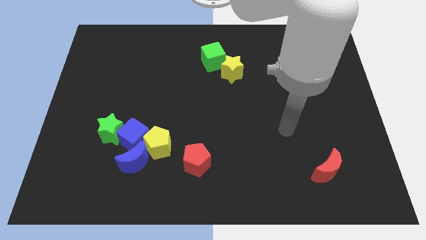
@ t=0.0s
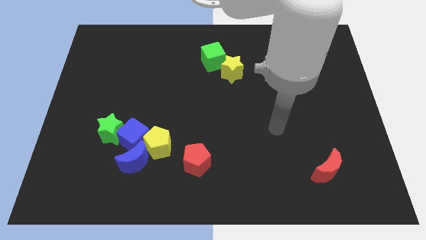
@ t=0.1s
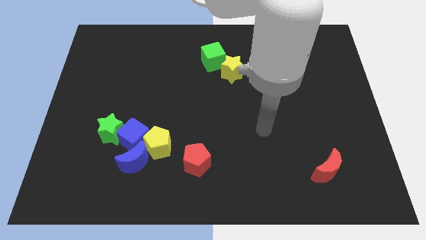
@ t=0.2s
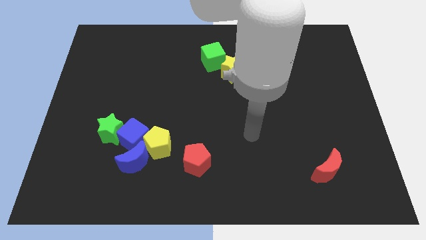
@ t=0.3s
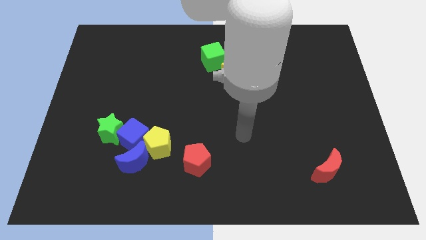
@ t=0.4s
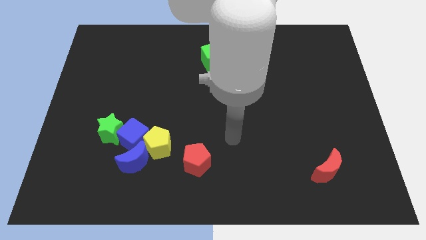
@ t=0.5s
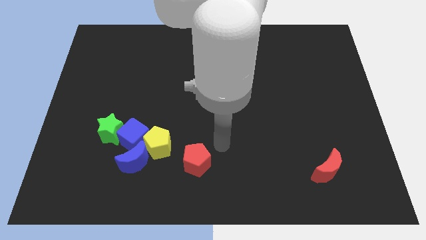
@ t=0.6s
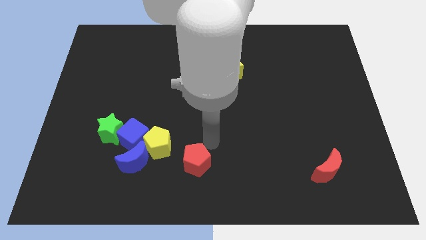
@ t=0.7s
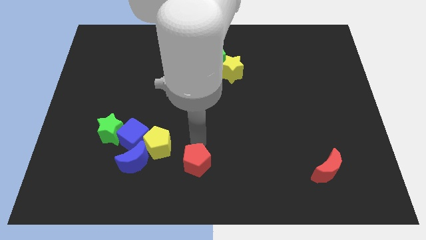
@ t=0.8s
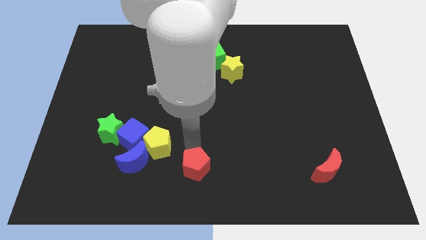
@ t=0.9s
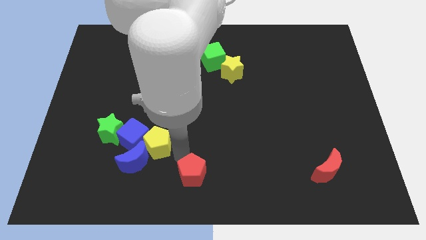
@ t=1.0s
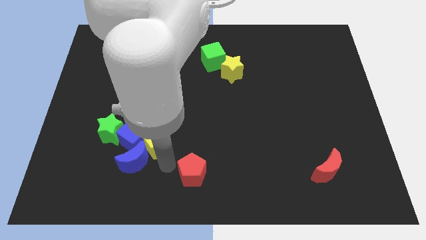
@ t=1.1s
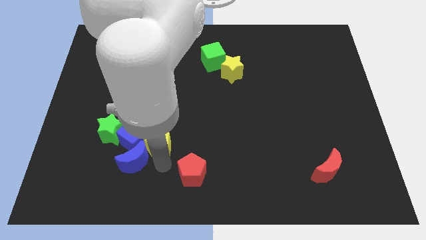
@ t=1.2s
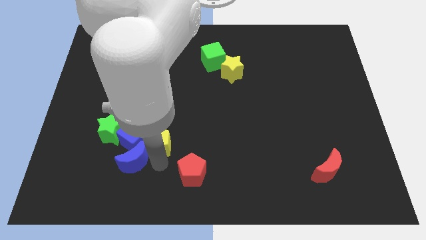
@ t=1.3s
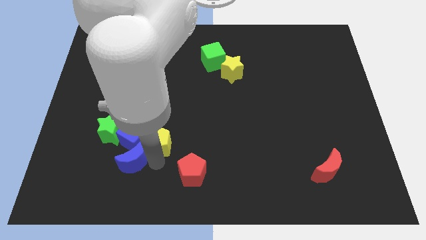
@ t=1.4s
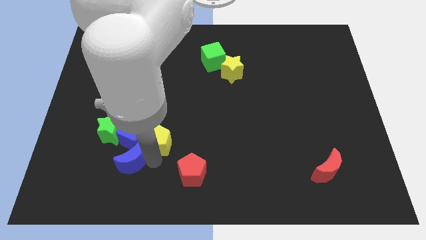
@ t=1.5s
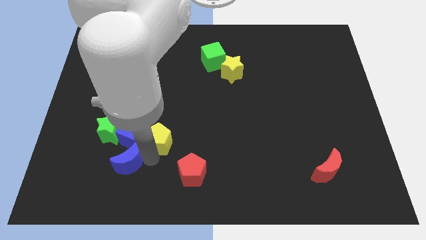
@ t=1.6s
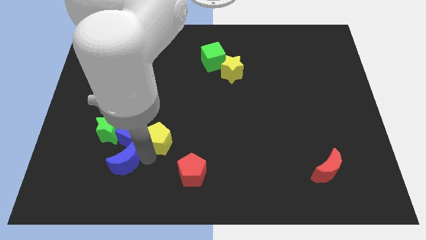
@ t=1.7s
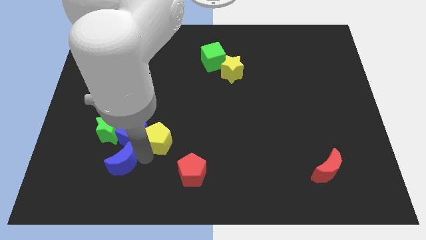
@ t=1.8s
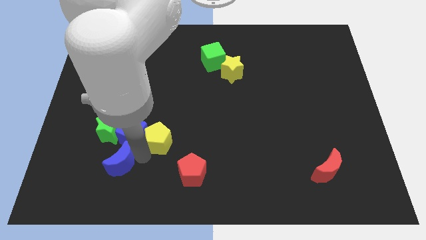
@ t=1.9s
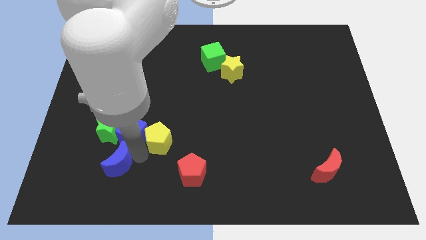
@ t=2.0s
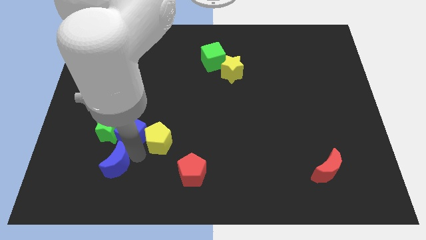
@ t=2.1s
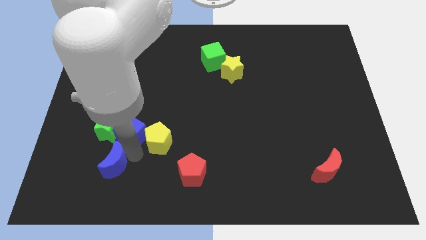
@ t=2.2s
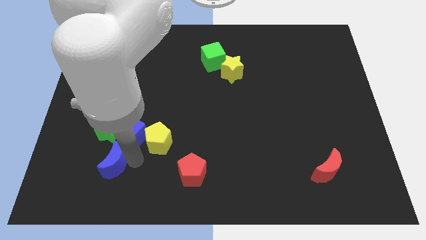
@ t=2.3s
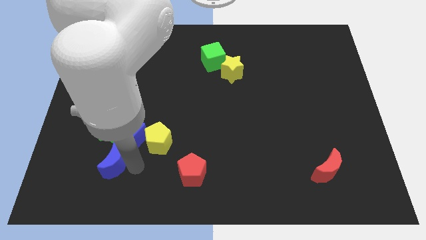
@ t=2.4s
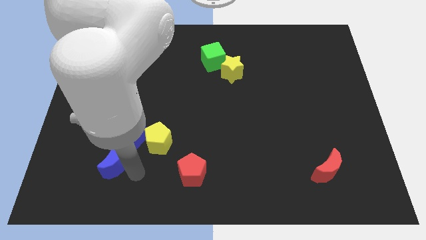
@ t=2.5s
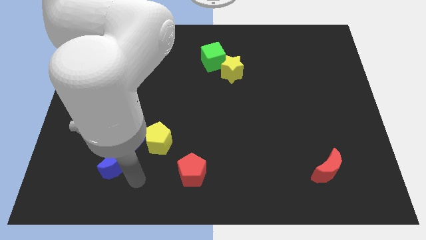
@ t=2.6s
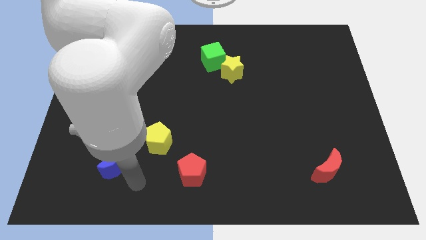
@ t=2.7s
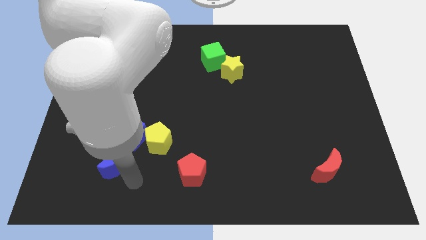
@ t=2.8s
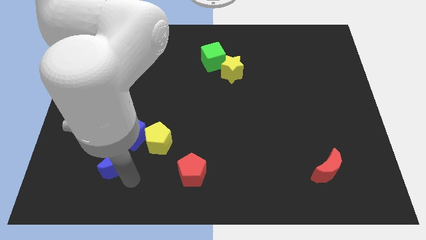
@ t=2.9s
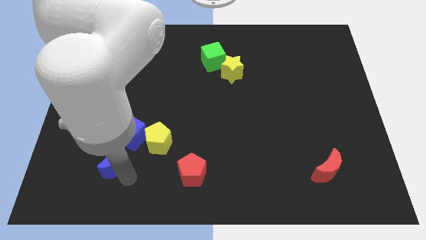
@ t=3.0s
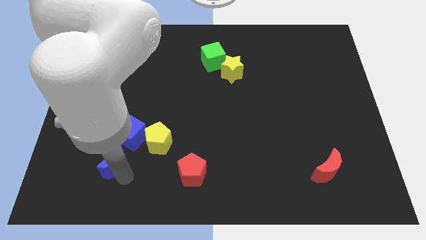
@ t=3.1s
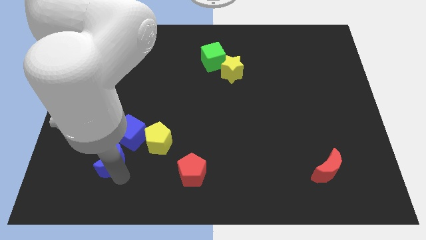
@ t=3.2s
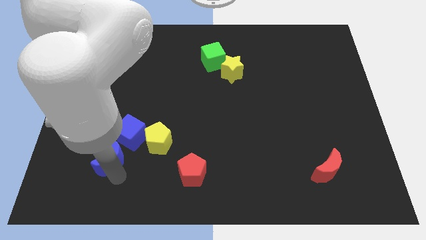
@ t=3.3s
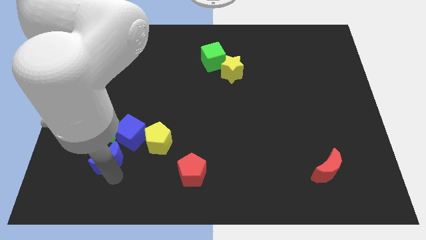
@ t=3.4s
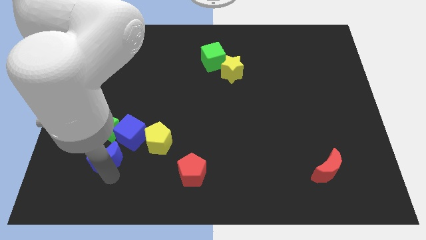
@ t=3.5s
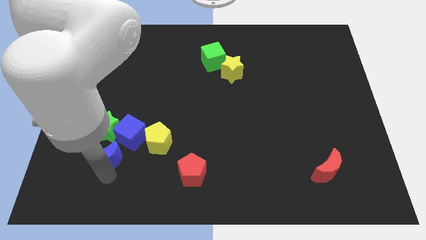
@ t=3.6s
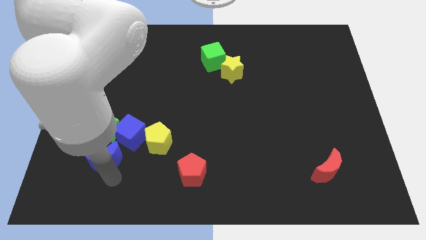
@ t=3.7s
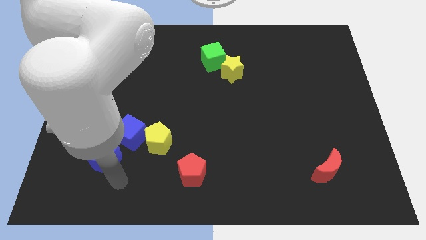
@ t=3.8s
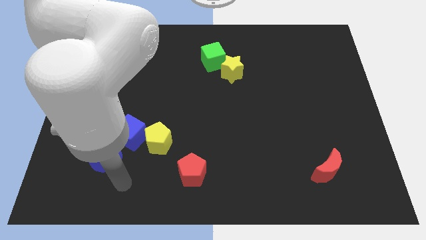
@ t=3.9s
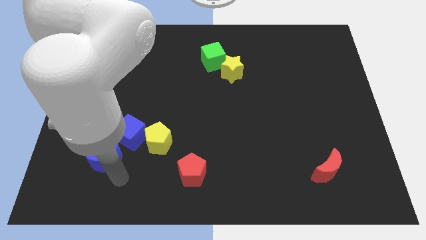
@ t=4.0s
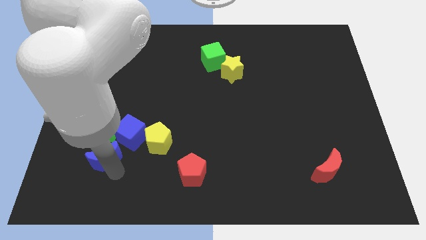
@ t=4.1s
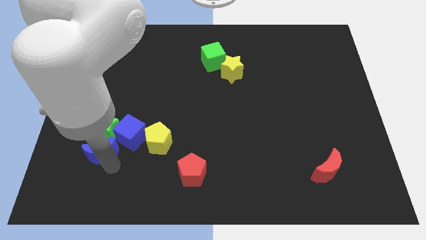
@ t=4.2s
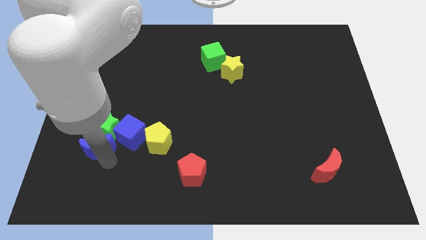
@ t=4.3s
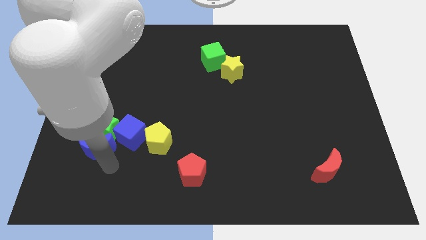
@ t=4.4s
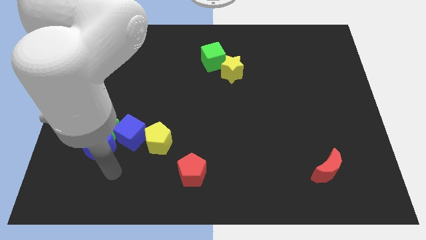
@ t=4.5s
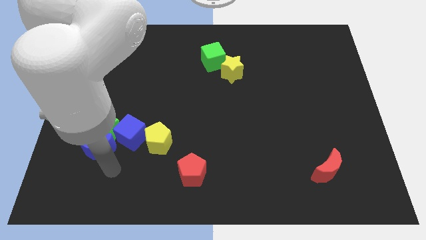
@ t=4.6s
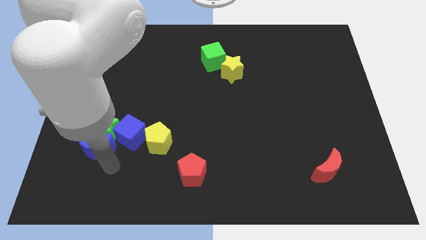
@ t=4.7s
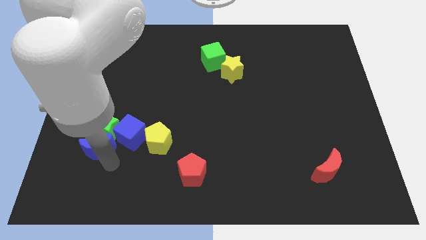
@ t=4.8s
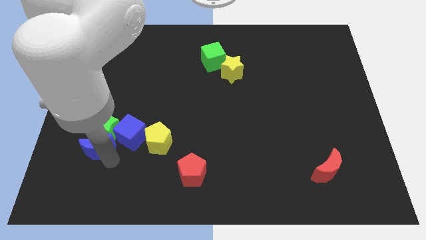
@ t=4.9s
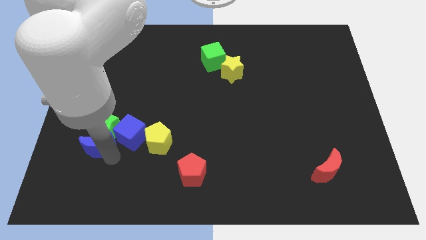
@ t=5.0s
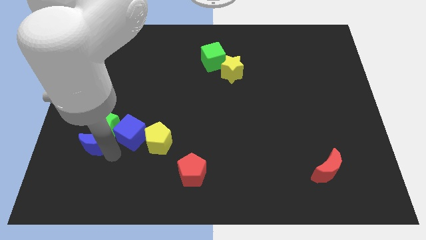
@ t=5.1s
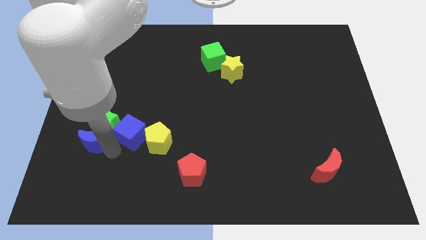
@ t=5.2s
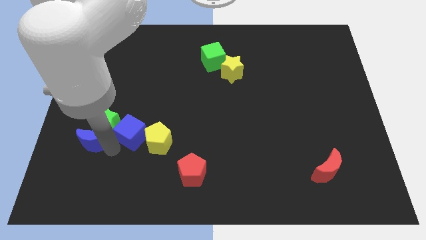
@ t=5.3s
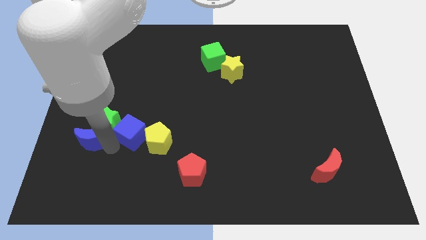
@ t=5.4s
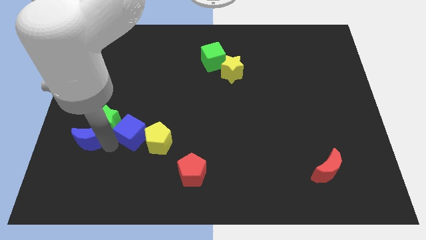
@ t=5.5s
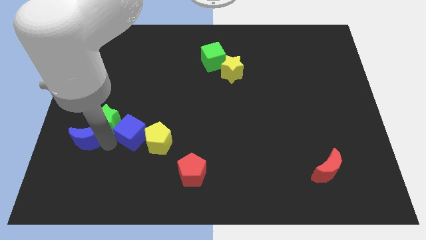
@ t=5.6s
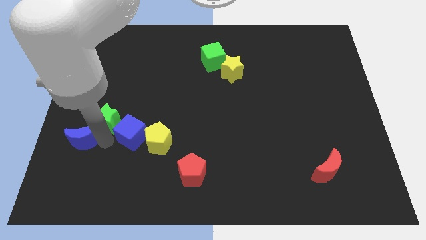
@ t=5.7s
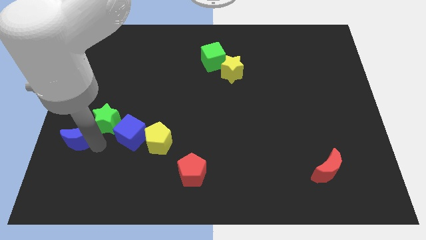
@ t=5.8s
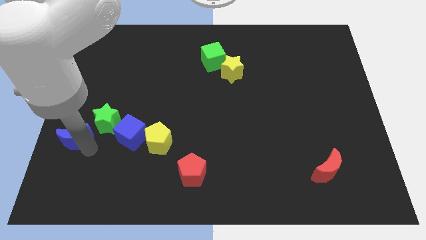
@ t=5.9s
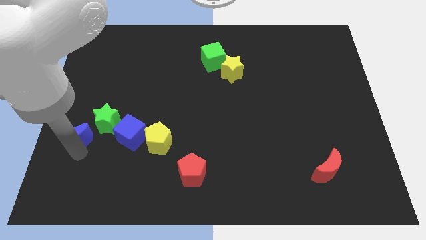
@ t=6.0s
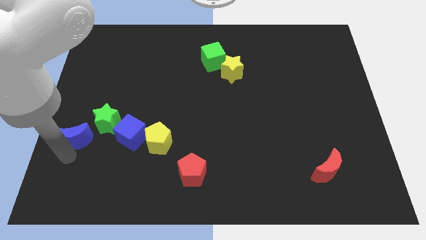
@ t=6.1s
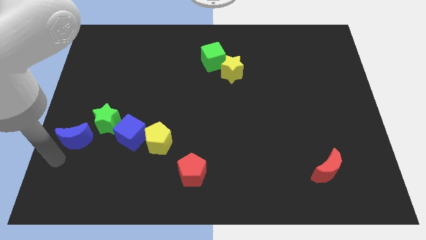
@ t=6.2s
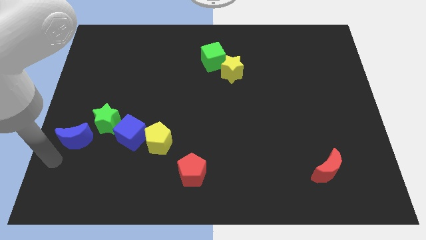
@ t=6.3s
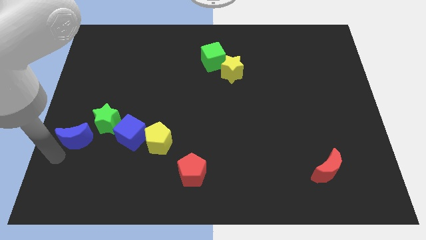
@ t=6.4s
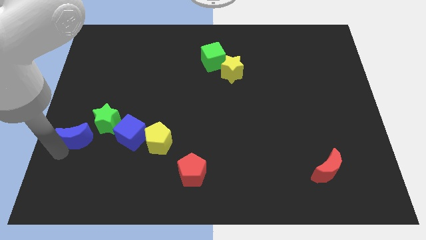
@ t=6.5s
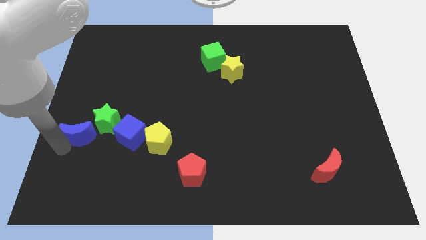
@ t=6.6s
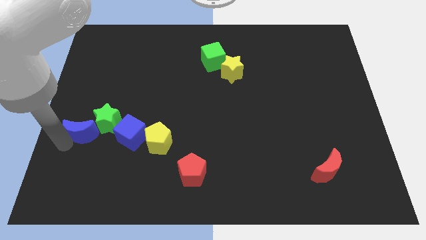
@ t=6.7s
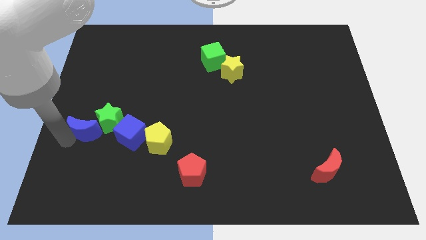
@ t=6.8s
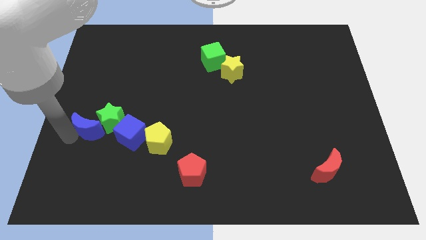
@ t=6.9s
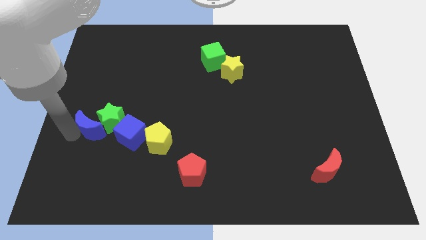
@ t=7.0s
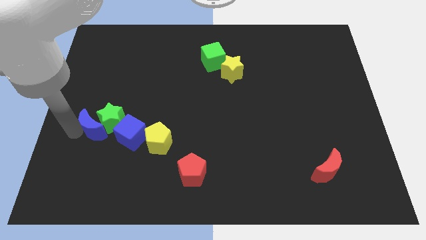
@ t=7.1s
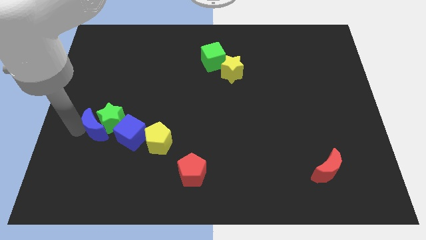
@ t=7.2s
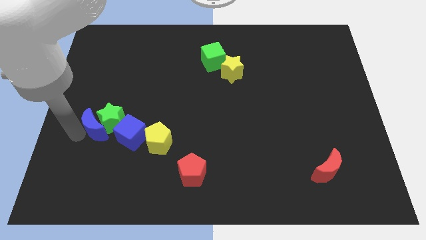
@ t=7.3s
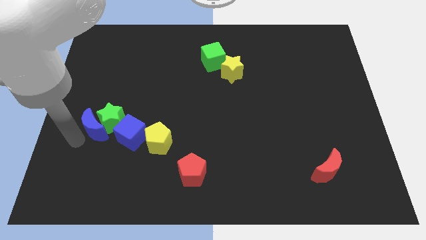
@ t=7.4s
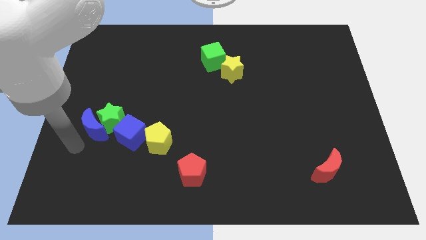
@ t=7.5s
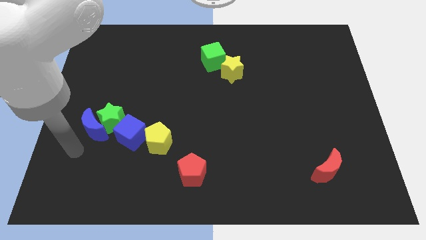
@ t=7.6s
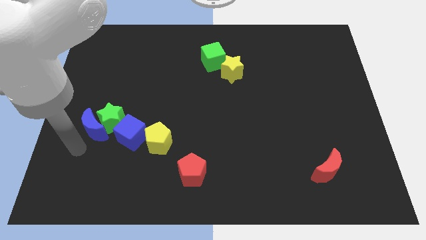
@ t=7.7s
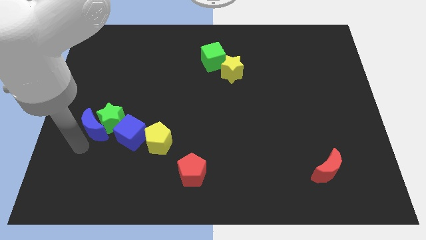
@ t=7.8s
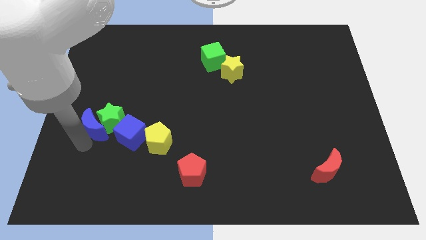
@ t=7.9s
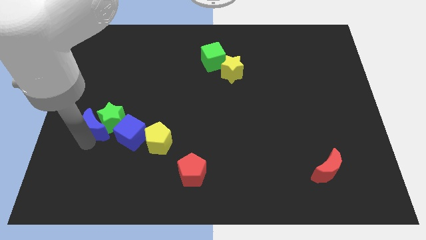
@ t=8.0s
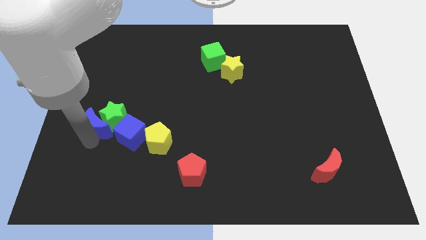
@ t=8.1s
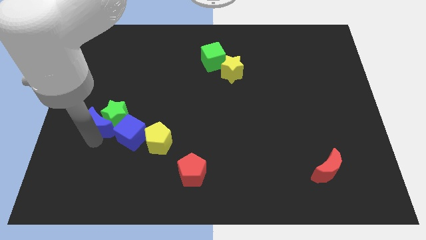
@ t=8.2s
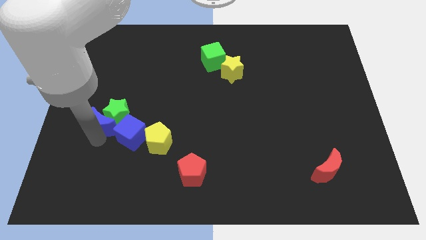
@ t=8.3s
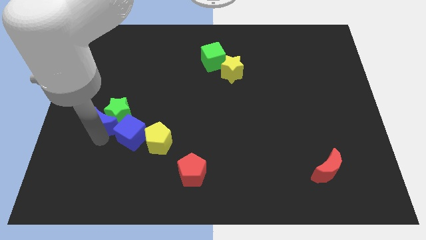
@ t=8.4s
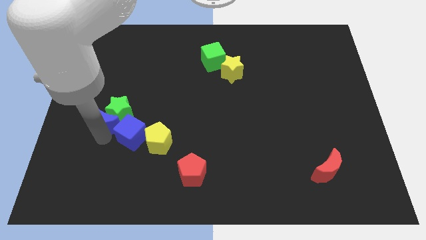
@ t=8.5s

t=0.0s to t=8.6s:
slightly push the blue moon upwards

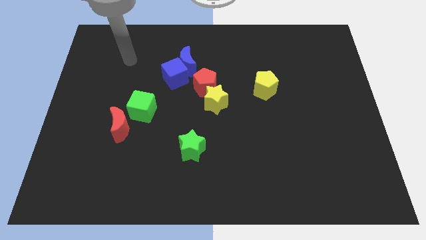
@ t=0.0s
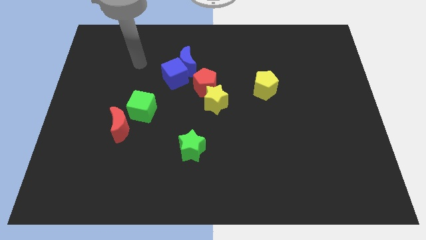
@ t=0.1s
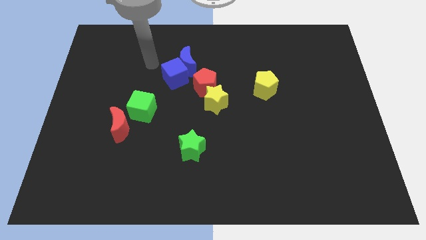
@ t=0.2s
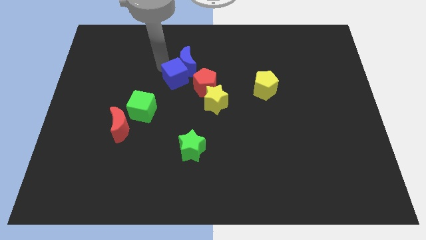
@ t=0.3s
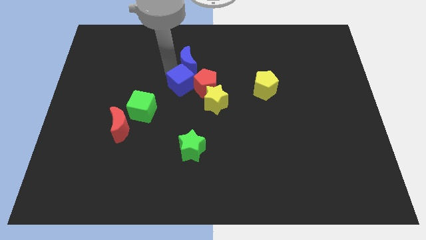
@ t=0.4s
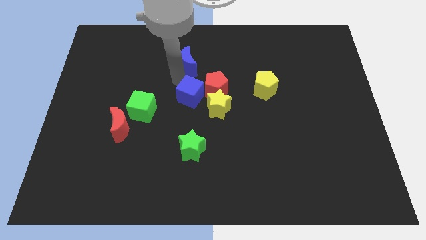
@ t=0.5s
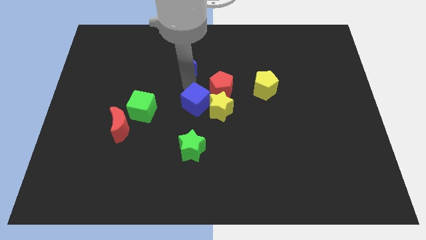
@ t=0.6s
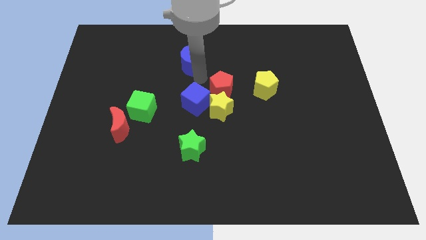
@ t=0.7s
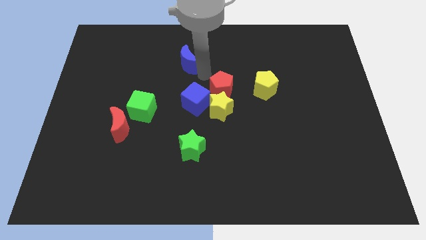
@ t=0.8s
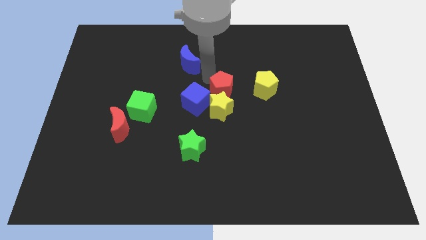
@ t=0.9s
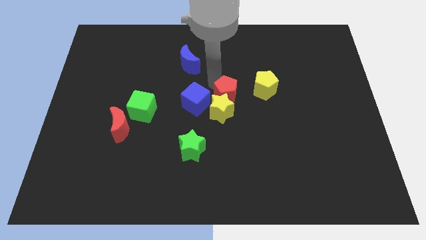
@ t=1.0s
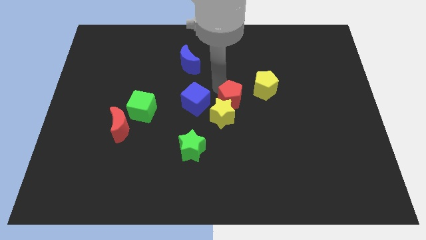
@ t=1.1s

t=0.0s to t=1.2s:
move the red pentagon diagonally down and right a little
